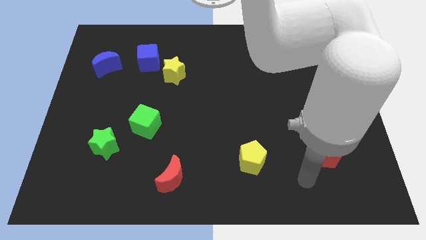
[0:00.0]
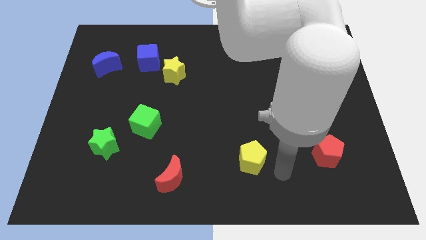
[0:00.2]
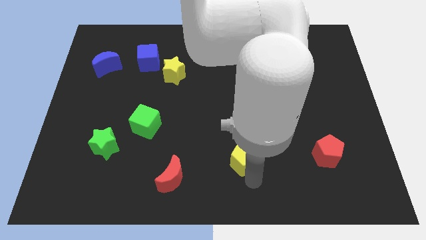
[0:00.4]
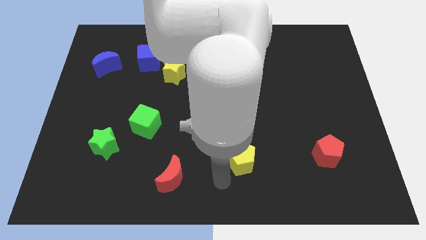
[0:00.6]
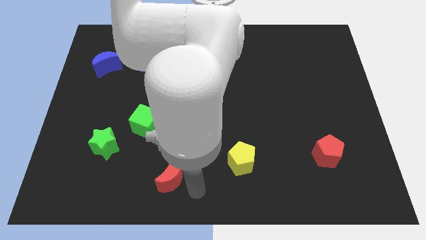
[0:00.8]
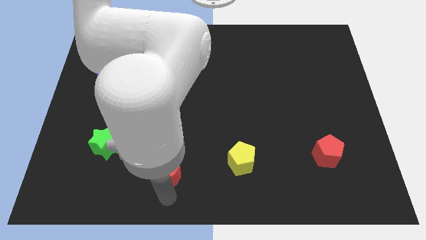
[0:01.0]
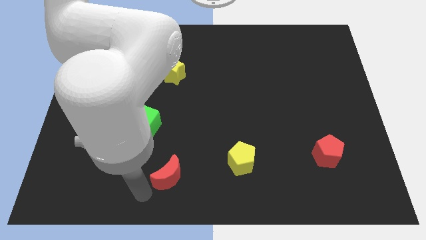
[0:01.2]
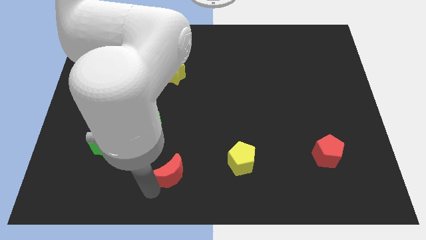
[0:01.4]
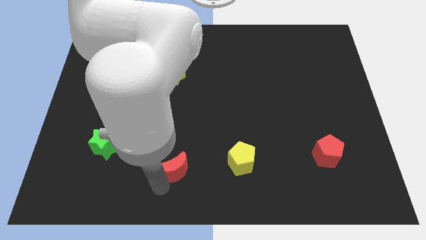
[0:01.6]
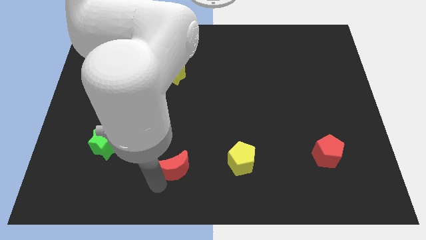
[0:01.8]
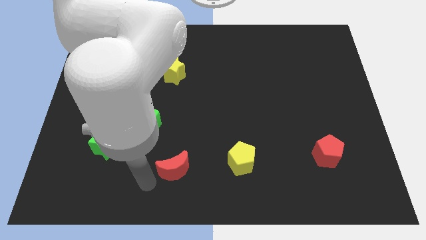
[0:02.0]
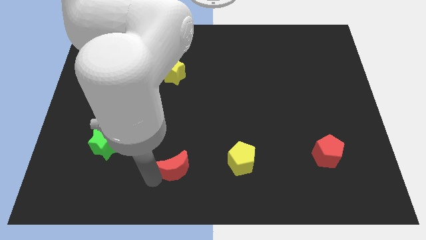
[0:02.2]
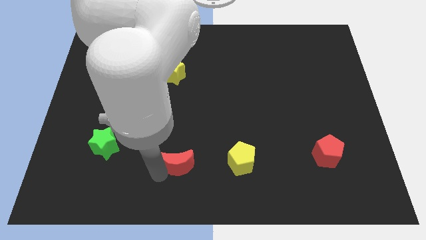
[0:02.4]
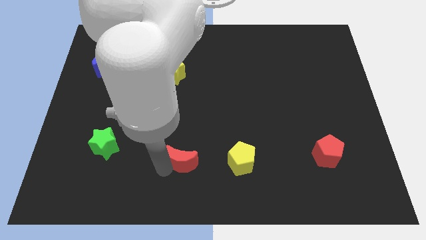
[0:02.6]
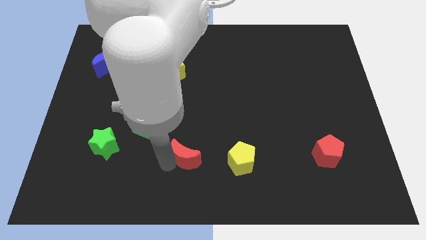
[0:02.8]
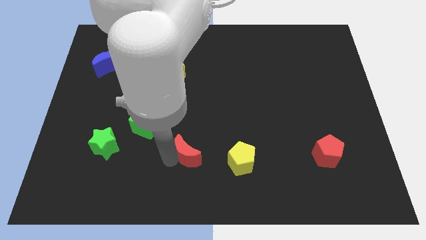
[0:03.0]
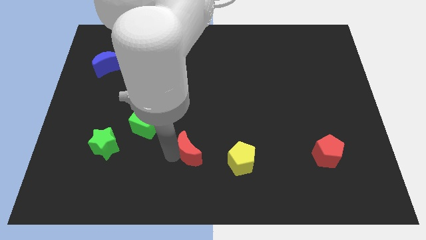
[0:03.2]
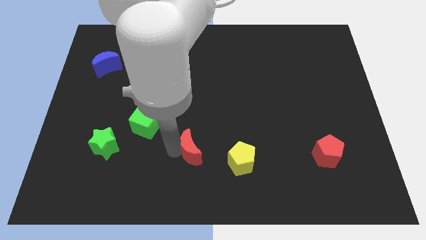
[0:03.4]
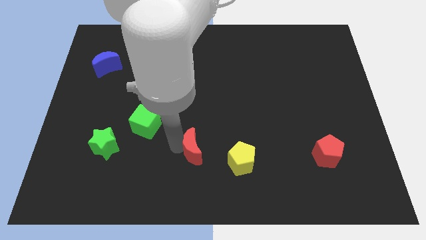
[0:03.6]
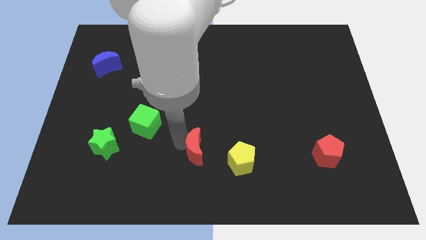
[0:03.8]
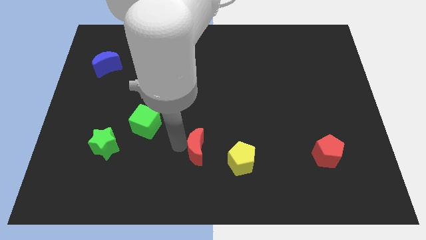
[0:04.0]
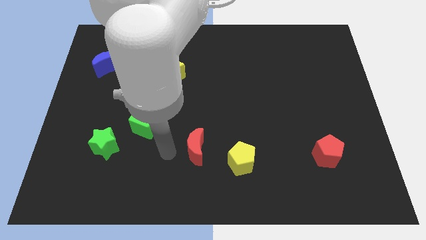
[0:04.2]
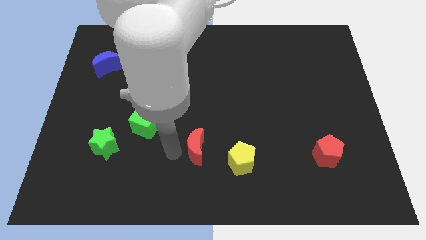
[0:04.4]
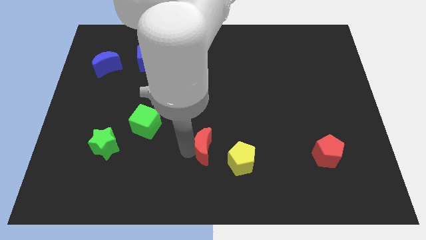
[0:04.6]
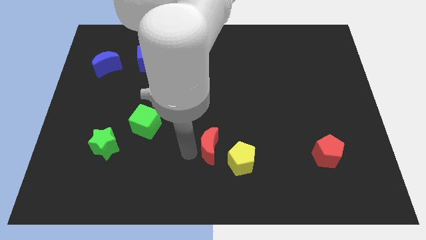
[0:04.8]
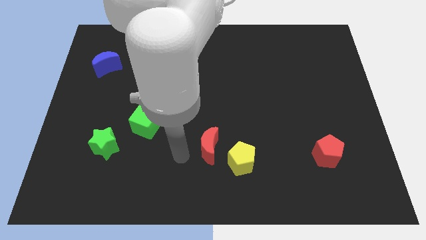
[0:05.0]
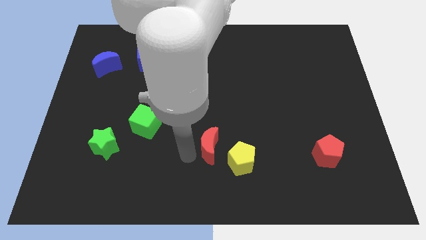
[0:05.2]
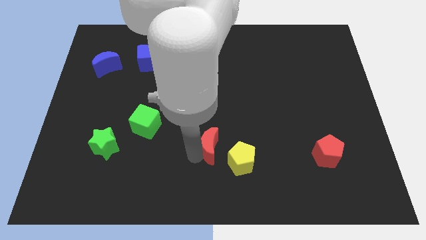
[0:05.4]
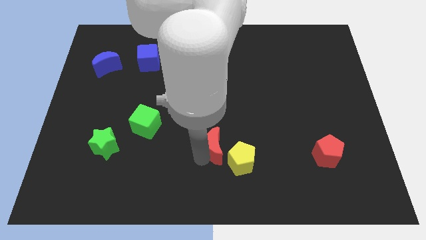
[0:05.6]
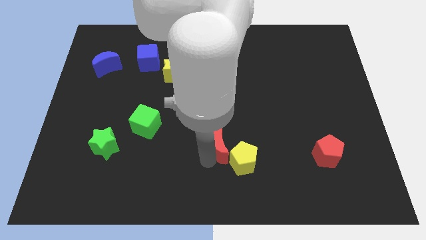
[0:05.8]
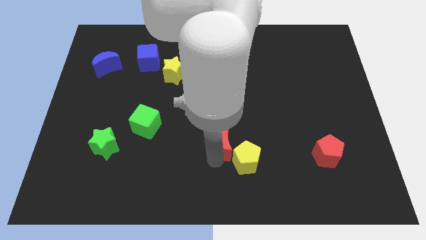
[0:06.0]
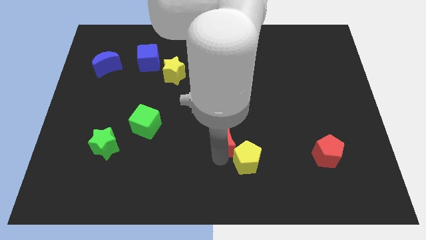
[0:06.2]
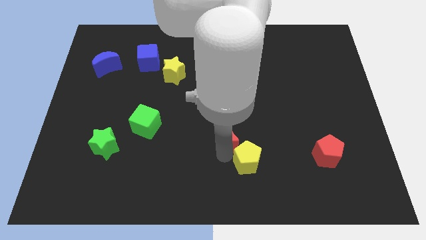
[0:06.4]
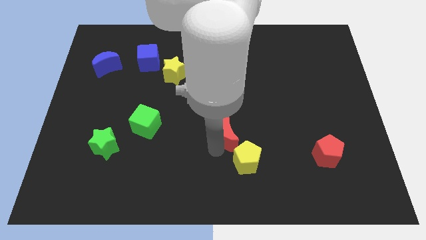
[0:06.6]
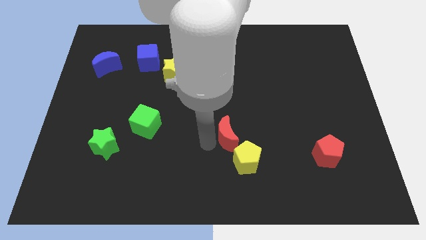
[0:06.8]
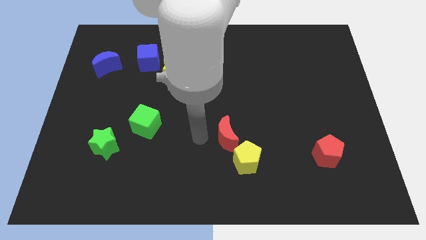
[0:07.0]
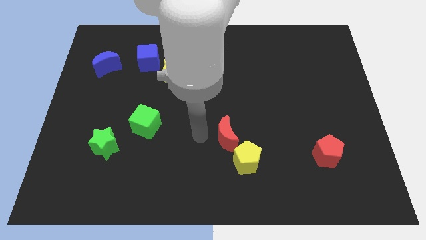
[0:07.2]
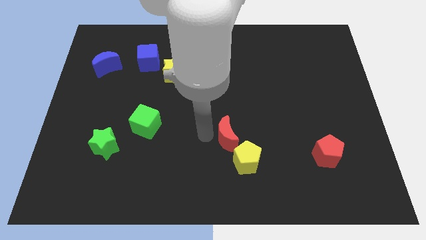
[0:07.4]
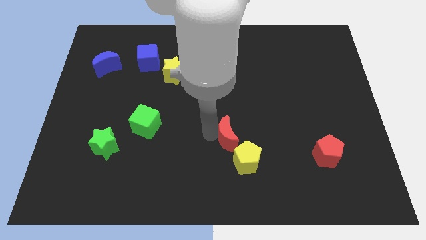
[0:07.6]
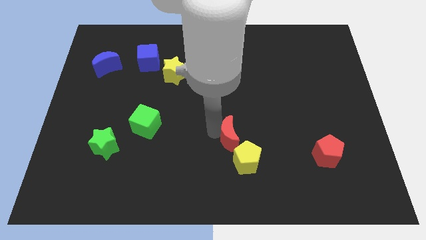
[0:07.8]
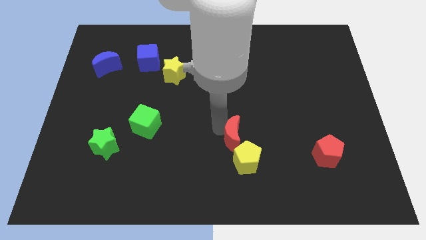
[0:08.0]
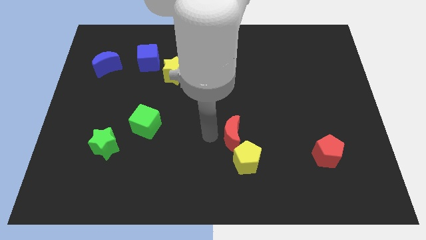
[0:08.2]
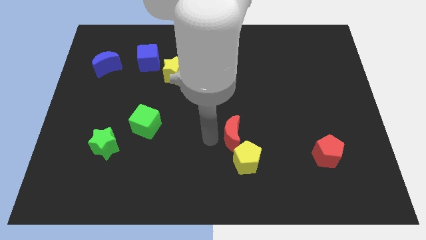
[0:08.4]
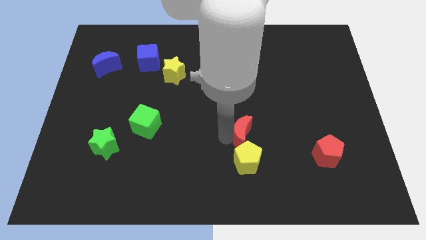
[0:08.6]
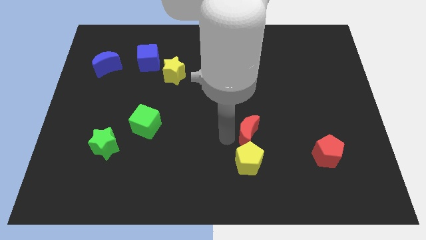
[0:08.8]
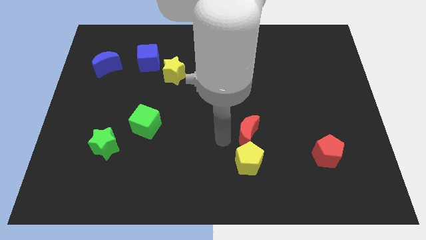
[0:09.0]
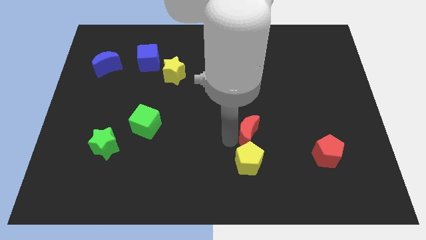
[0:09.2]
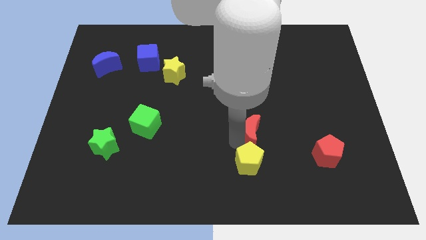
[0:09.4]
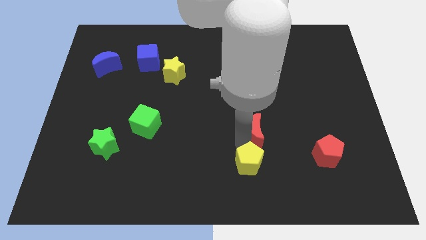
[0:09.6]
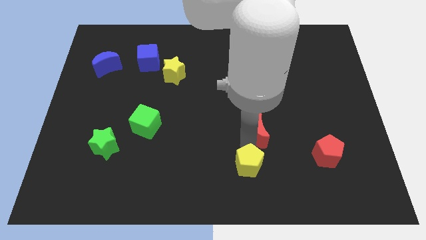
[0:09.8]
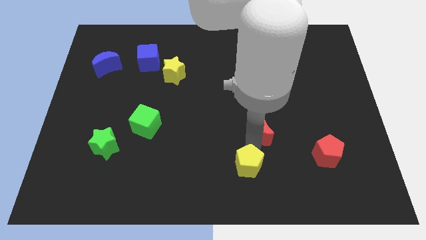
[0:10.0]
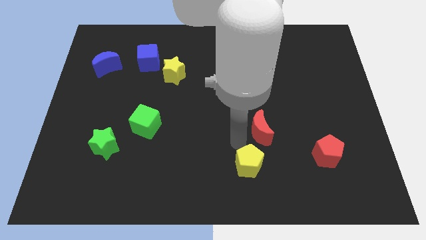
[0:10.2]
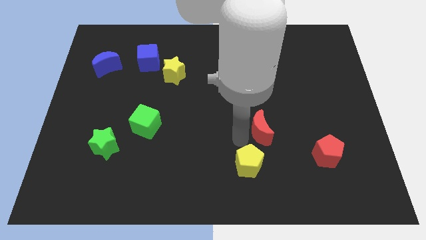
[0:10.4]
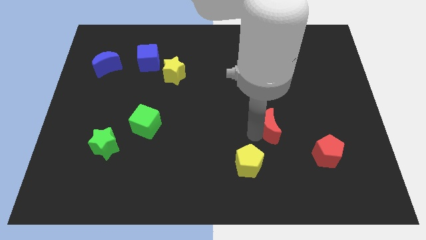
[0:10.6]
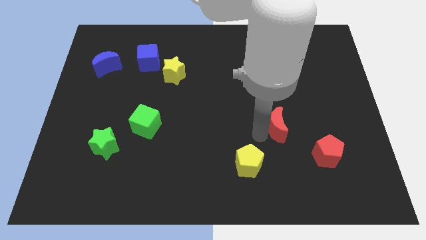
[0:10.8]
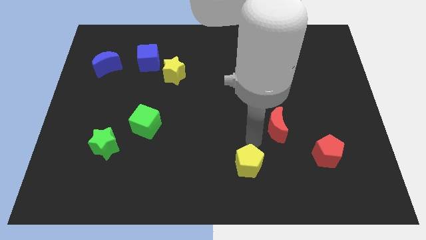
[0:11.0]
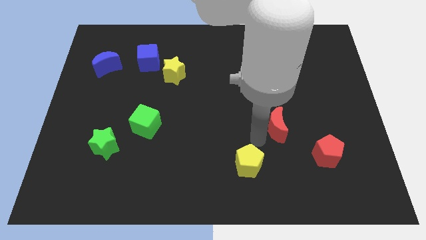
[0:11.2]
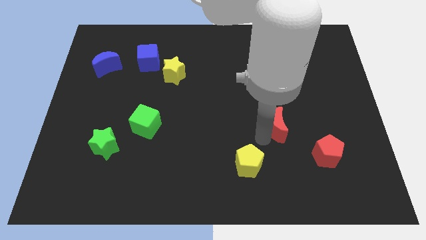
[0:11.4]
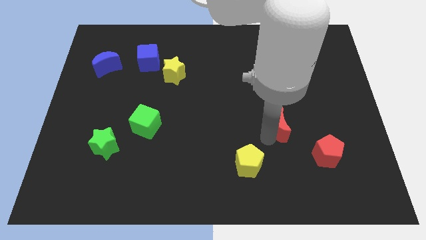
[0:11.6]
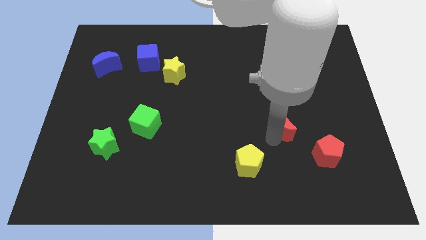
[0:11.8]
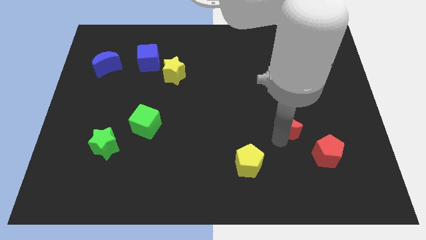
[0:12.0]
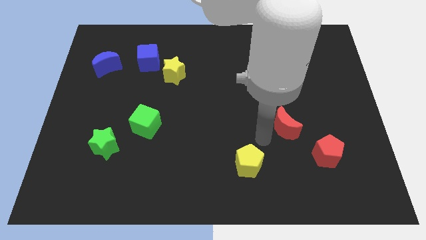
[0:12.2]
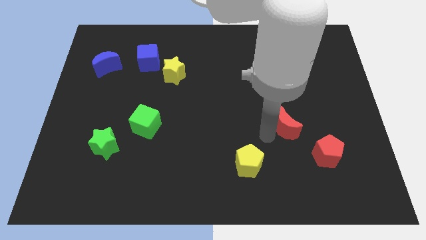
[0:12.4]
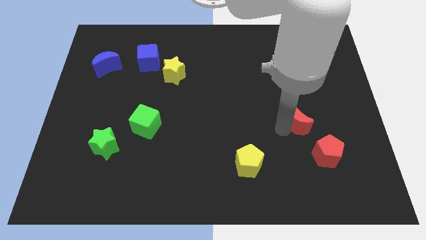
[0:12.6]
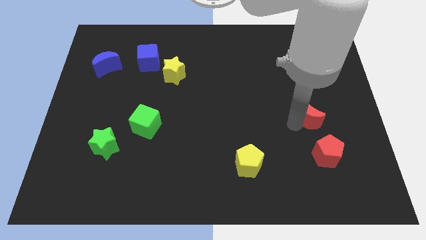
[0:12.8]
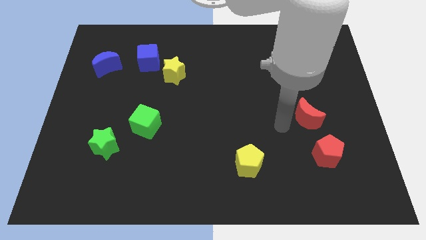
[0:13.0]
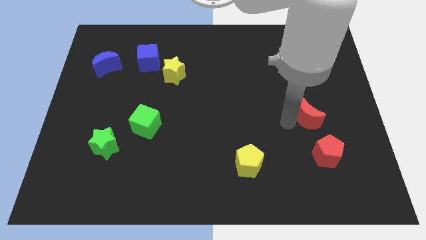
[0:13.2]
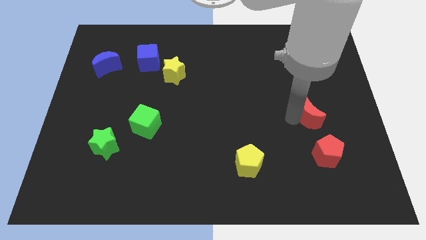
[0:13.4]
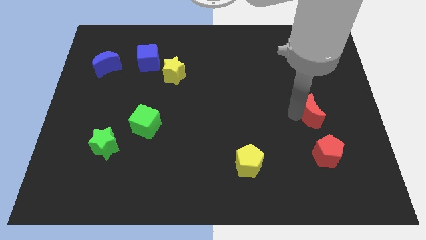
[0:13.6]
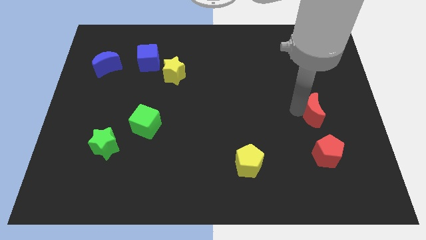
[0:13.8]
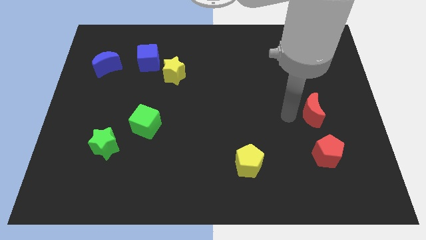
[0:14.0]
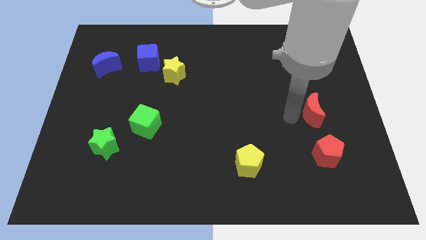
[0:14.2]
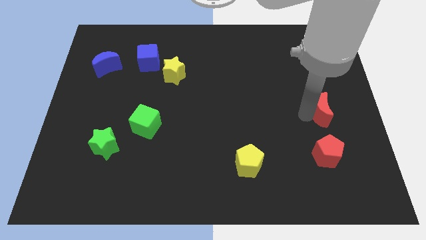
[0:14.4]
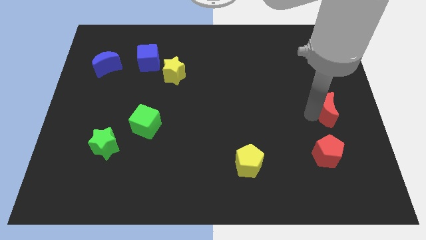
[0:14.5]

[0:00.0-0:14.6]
push the red moon to the center right
